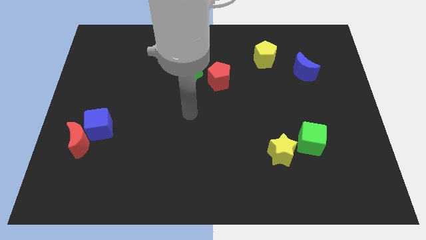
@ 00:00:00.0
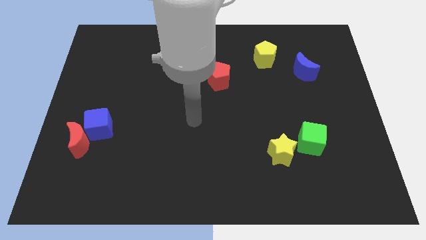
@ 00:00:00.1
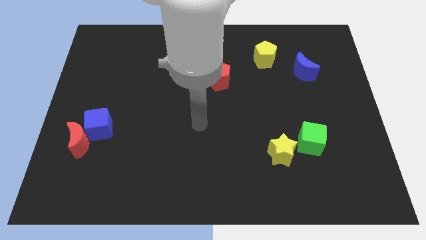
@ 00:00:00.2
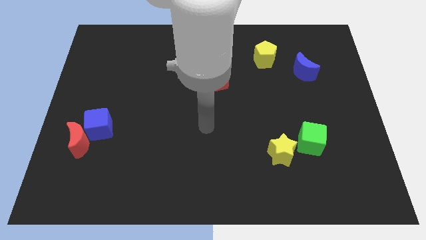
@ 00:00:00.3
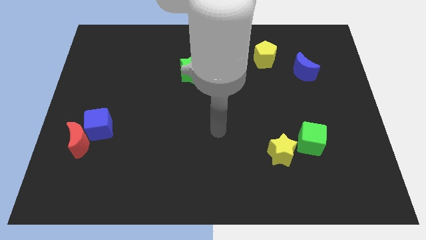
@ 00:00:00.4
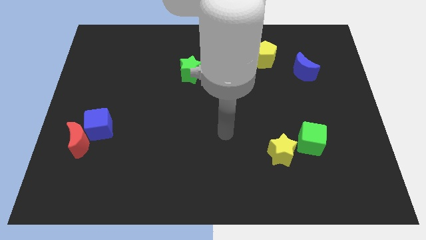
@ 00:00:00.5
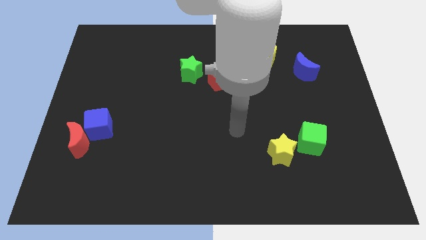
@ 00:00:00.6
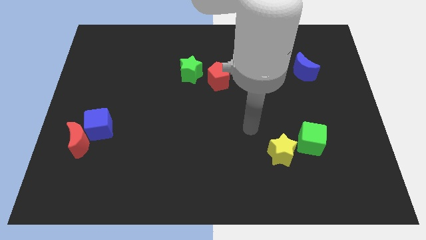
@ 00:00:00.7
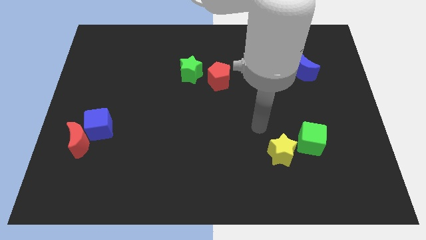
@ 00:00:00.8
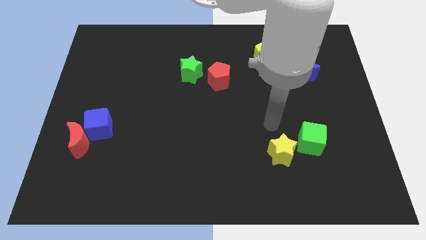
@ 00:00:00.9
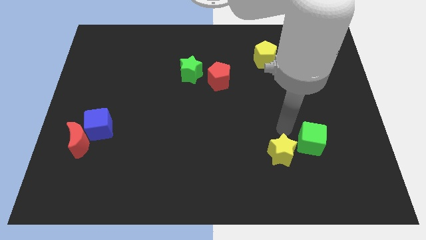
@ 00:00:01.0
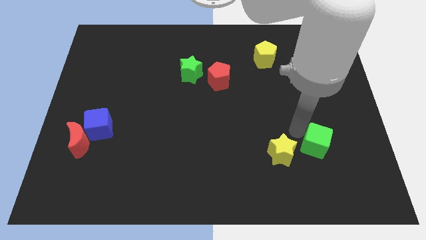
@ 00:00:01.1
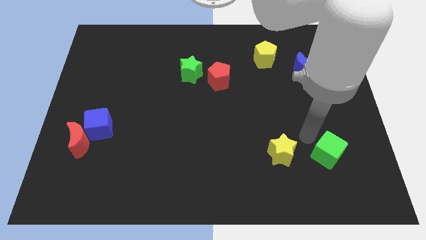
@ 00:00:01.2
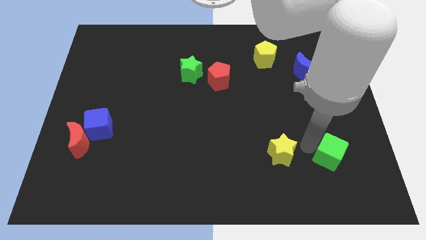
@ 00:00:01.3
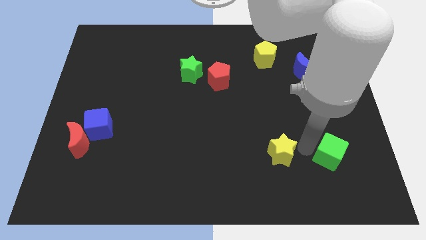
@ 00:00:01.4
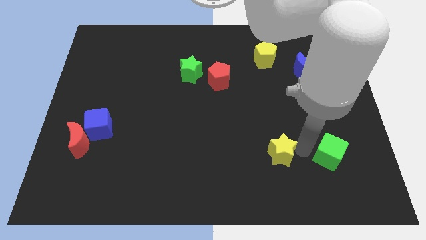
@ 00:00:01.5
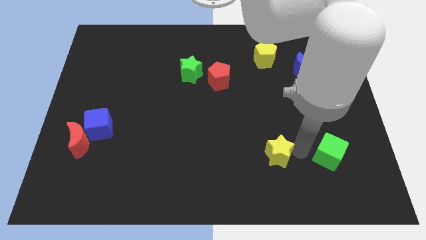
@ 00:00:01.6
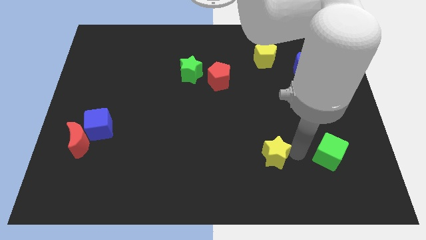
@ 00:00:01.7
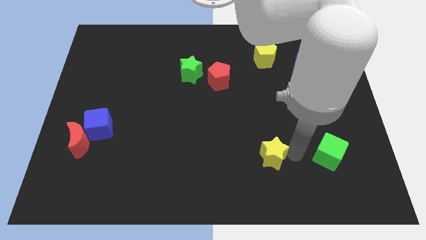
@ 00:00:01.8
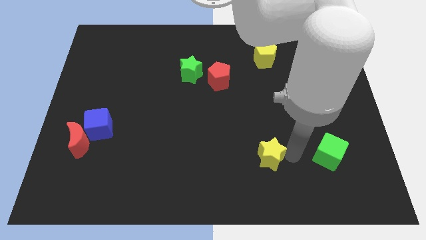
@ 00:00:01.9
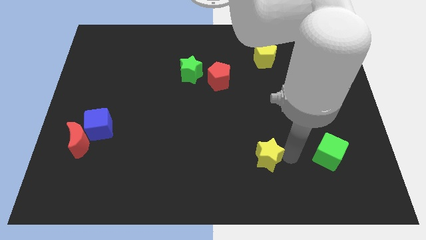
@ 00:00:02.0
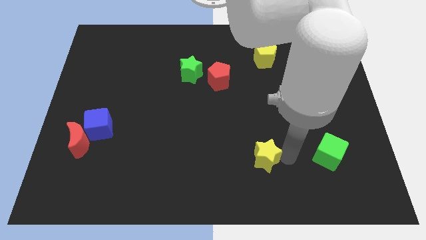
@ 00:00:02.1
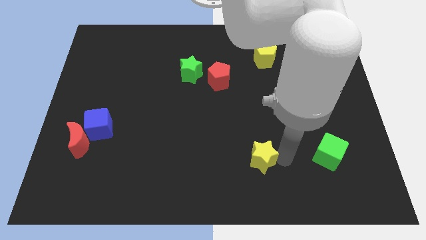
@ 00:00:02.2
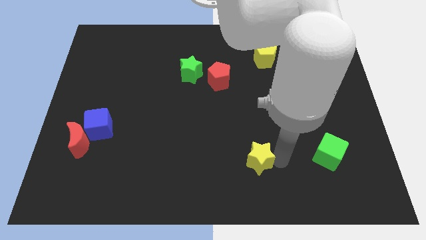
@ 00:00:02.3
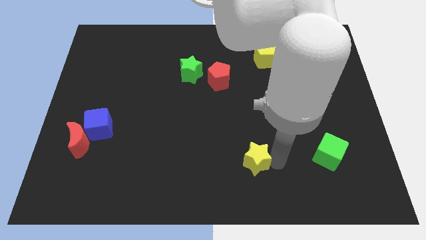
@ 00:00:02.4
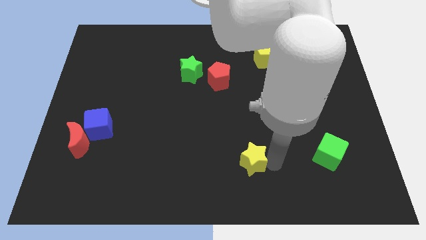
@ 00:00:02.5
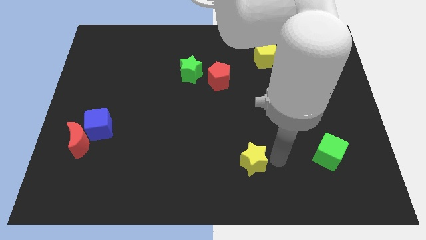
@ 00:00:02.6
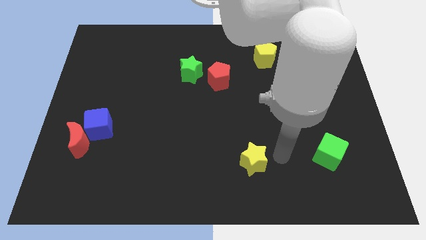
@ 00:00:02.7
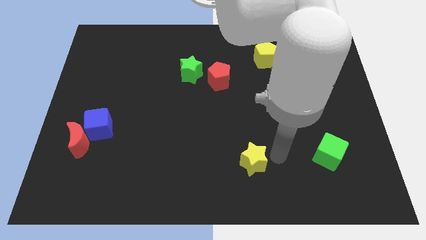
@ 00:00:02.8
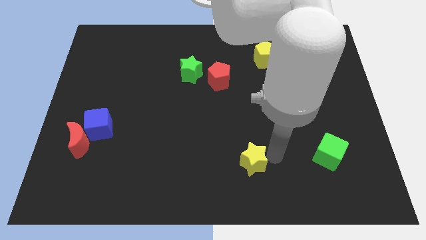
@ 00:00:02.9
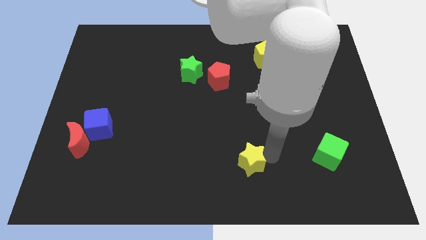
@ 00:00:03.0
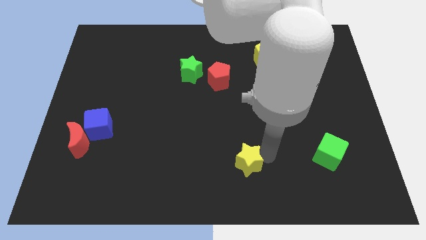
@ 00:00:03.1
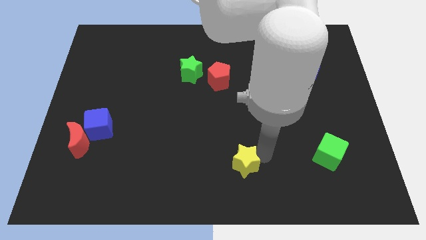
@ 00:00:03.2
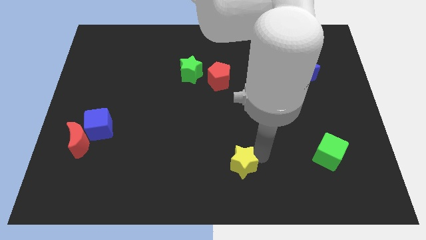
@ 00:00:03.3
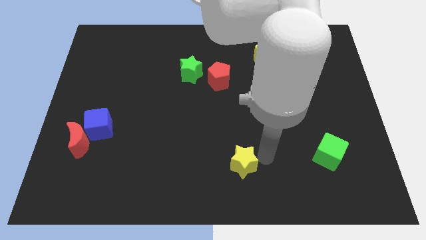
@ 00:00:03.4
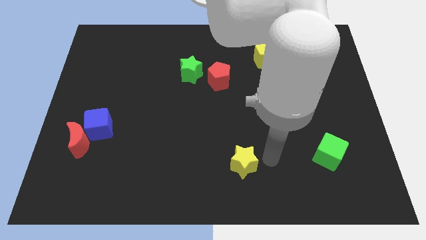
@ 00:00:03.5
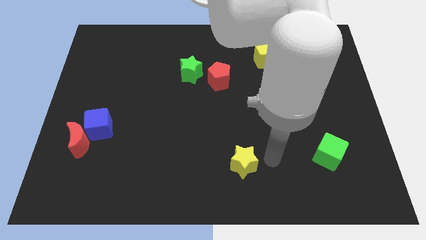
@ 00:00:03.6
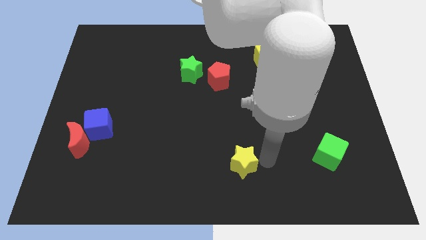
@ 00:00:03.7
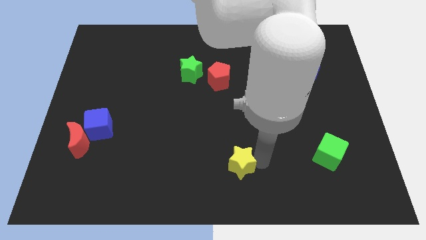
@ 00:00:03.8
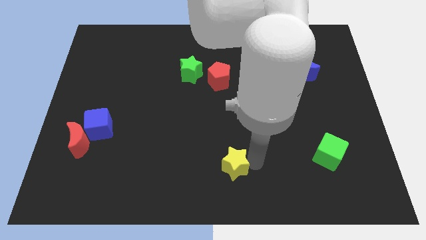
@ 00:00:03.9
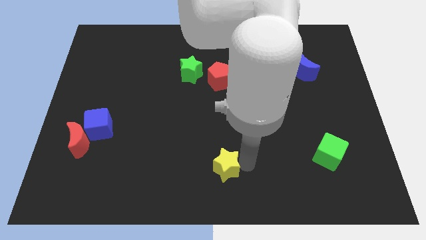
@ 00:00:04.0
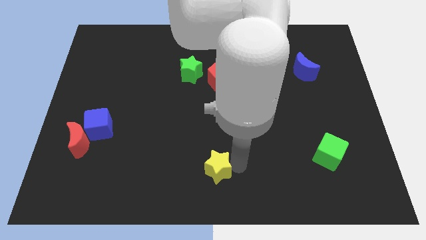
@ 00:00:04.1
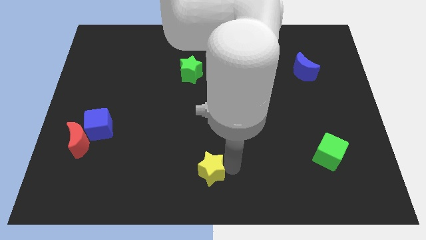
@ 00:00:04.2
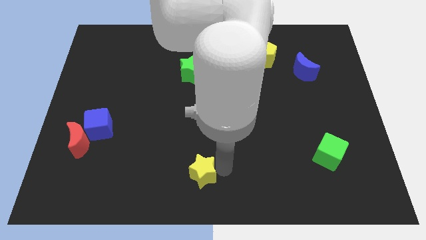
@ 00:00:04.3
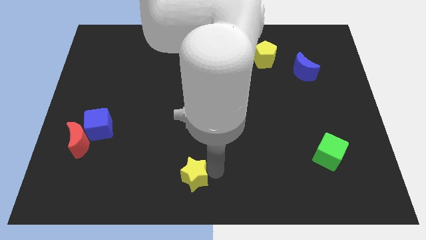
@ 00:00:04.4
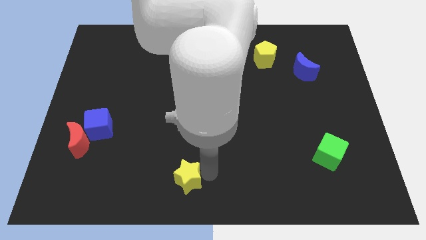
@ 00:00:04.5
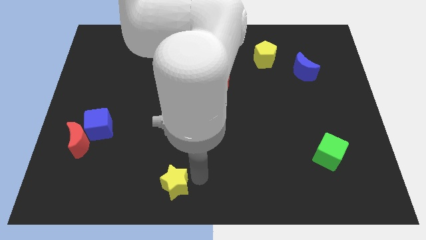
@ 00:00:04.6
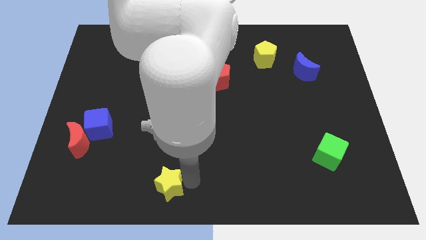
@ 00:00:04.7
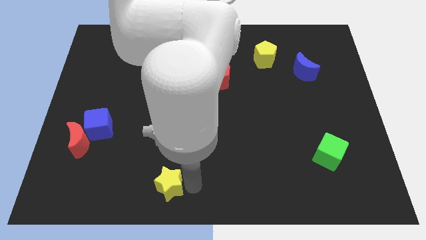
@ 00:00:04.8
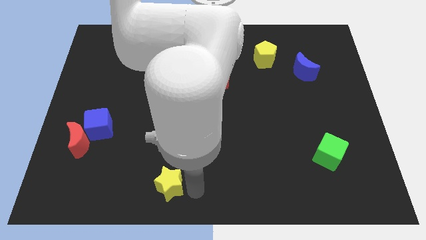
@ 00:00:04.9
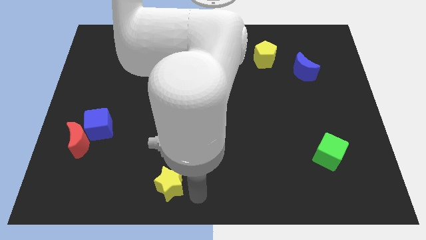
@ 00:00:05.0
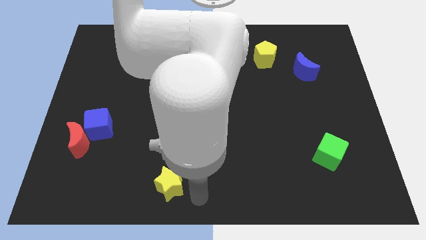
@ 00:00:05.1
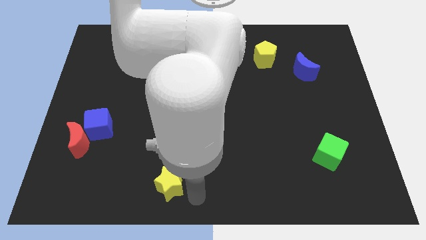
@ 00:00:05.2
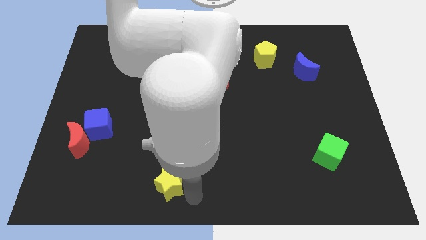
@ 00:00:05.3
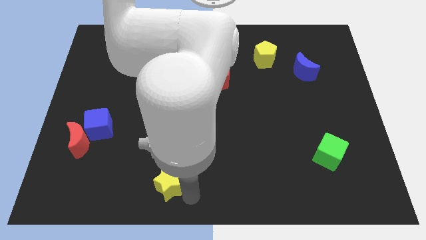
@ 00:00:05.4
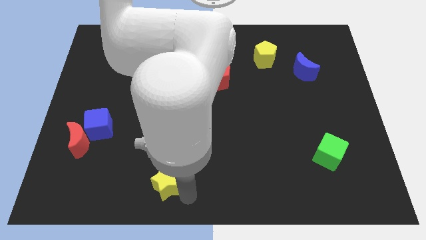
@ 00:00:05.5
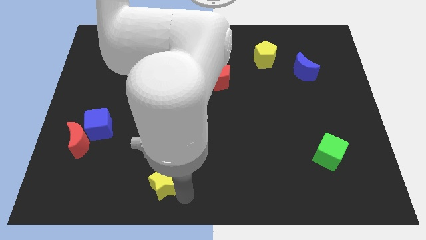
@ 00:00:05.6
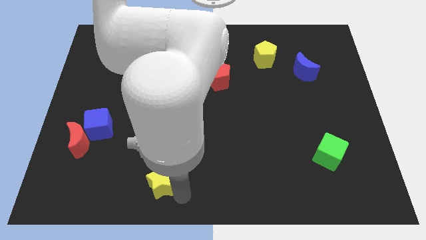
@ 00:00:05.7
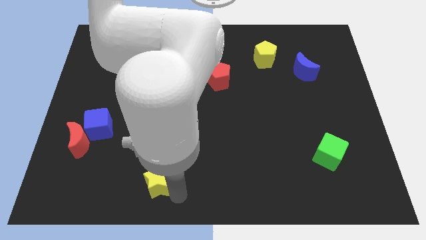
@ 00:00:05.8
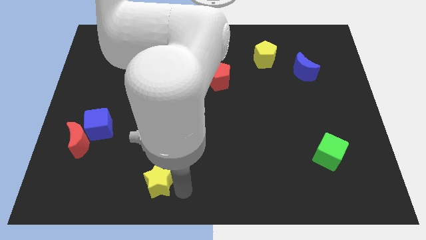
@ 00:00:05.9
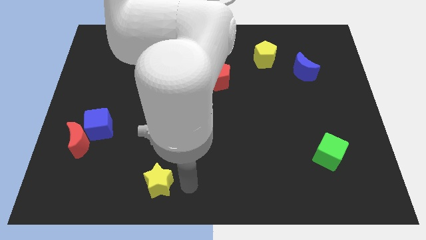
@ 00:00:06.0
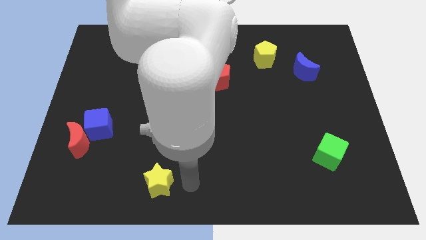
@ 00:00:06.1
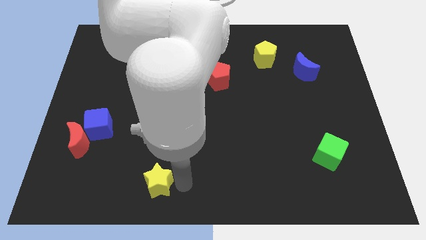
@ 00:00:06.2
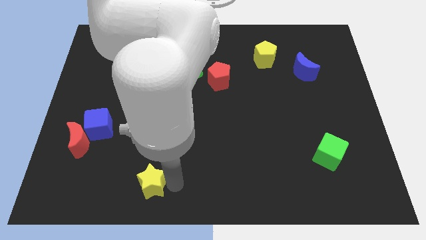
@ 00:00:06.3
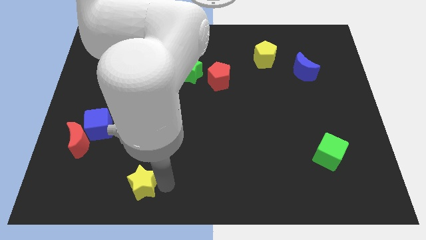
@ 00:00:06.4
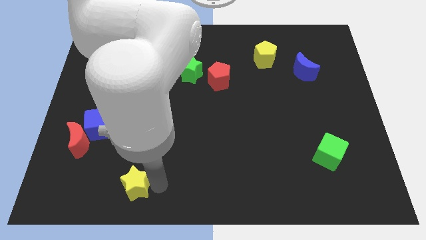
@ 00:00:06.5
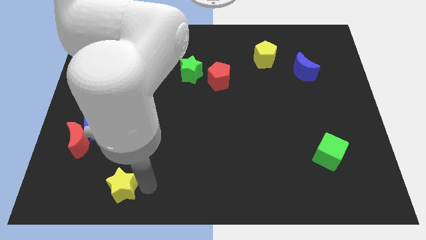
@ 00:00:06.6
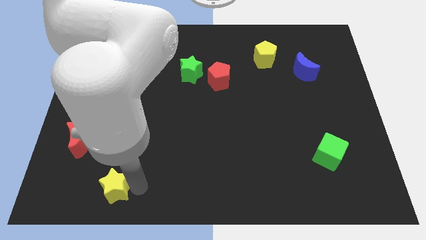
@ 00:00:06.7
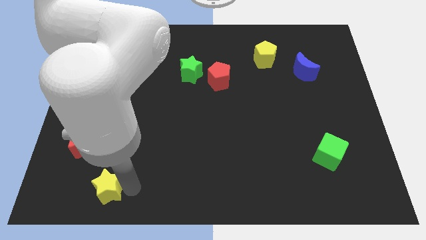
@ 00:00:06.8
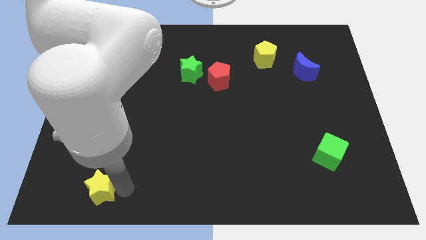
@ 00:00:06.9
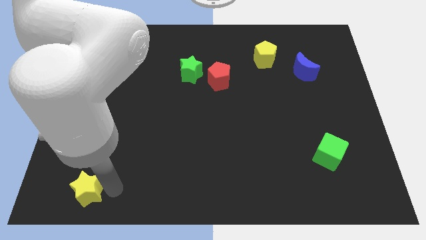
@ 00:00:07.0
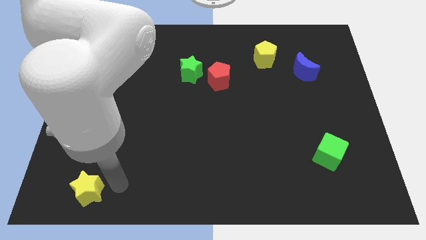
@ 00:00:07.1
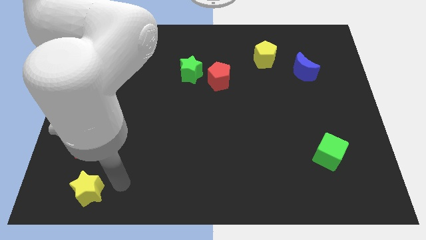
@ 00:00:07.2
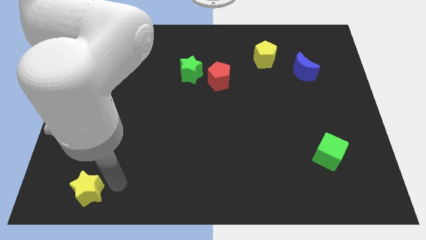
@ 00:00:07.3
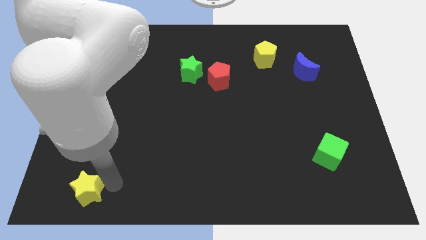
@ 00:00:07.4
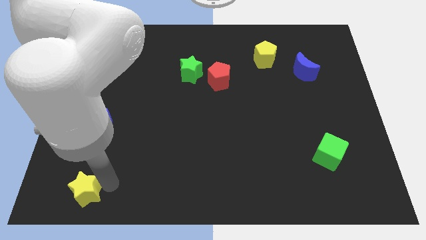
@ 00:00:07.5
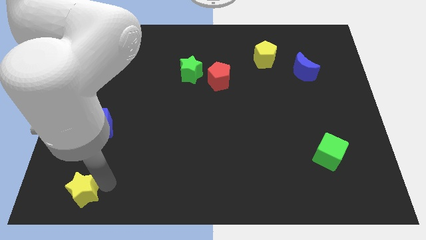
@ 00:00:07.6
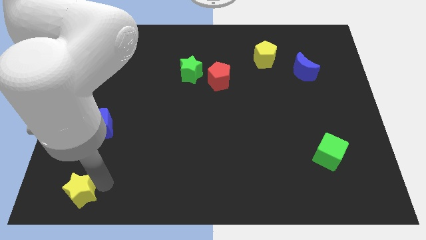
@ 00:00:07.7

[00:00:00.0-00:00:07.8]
slide the yellow star to the bottom left corner
